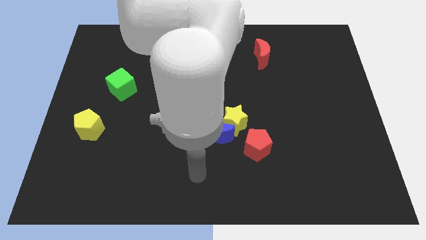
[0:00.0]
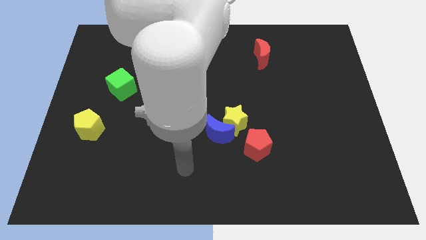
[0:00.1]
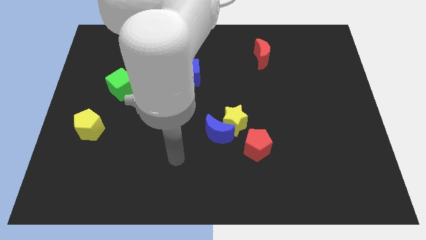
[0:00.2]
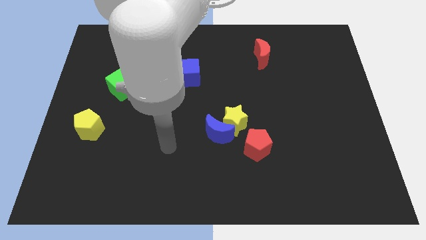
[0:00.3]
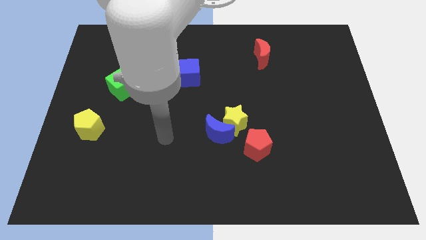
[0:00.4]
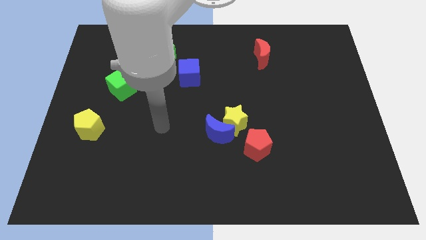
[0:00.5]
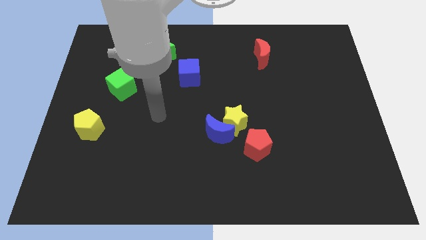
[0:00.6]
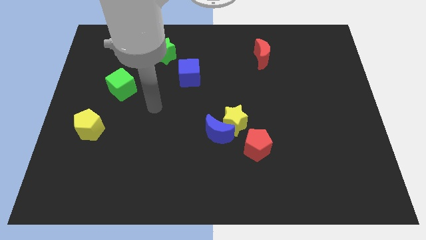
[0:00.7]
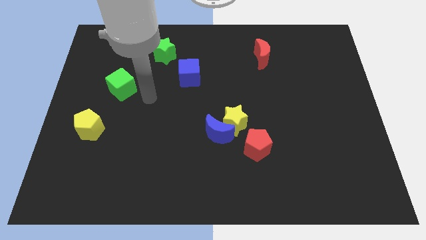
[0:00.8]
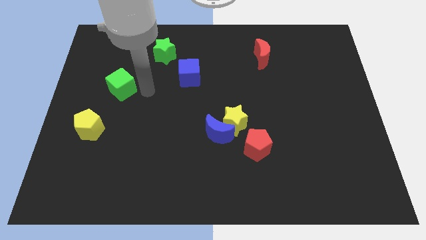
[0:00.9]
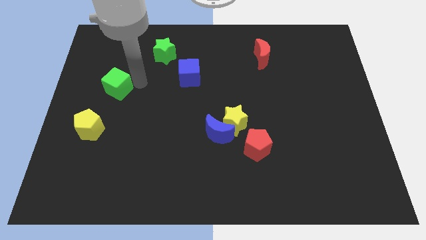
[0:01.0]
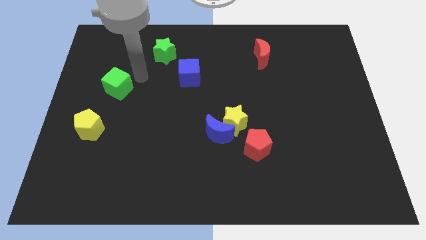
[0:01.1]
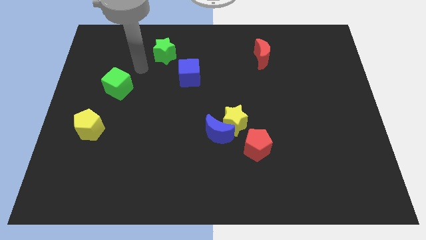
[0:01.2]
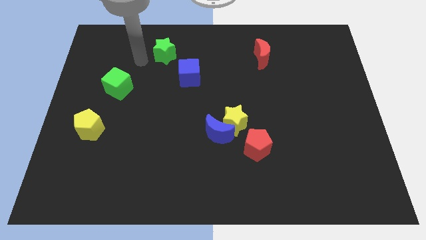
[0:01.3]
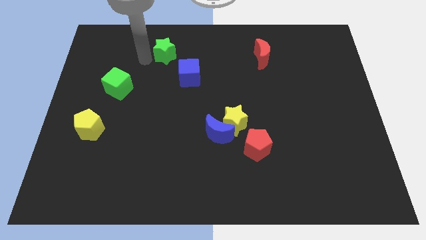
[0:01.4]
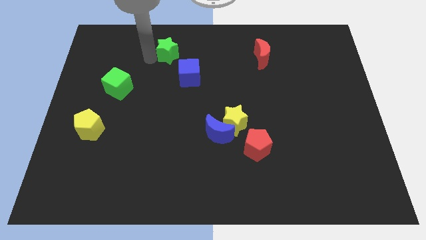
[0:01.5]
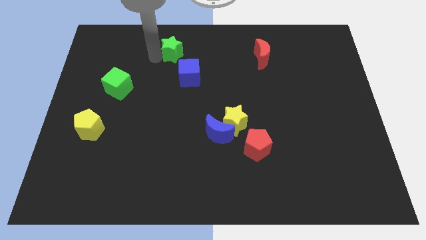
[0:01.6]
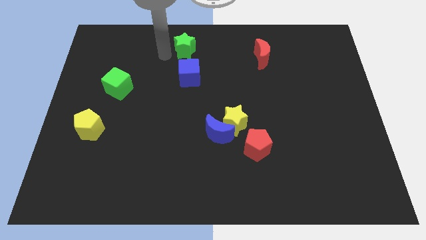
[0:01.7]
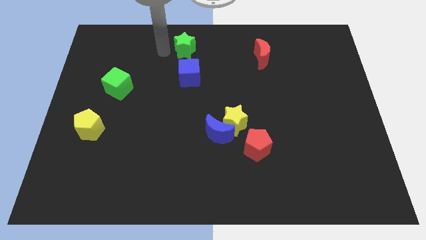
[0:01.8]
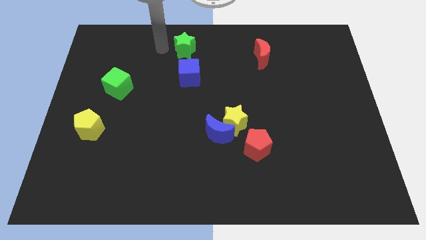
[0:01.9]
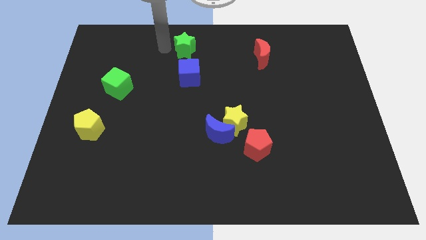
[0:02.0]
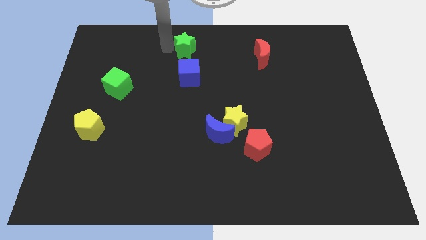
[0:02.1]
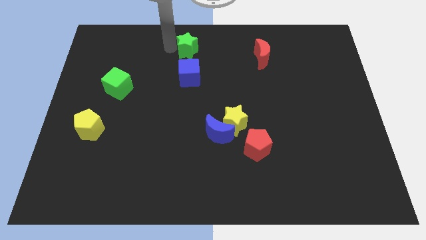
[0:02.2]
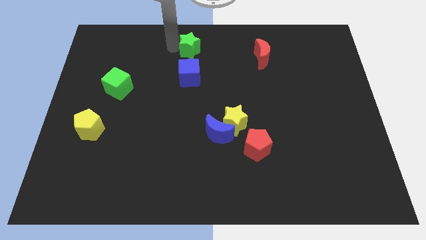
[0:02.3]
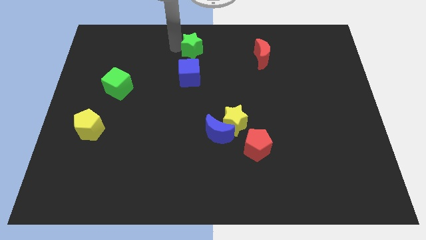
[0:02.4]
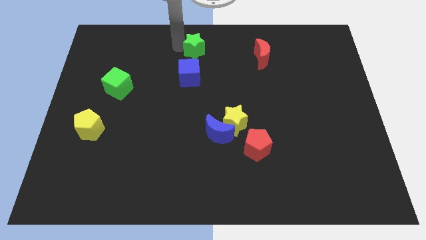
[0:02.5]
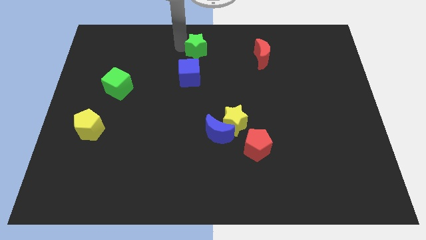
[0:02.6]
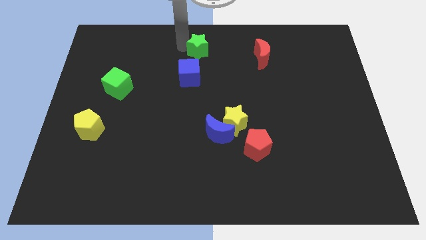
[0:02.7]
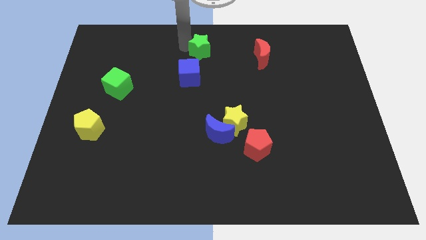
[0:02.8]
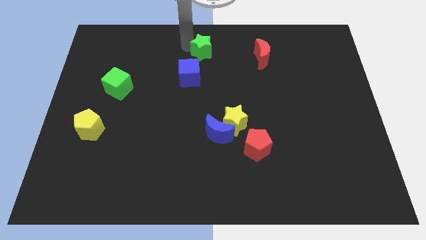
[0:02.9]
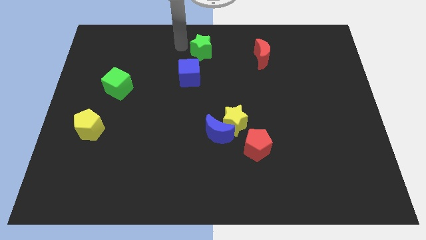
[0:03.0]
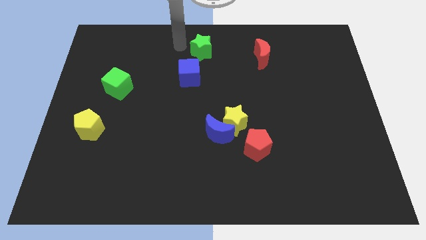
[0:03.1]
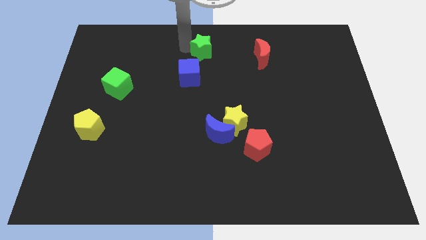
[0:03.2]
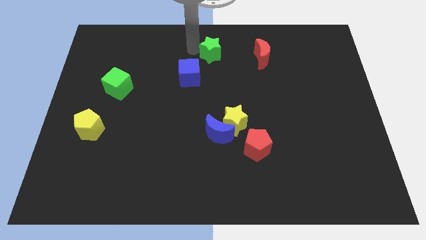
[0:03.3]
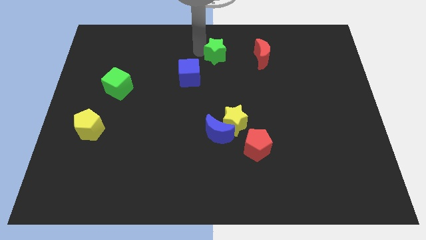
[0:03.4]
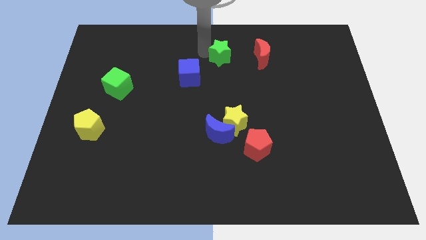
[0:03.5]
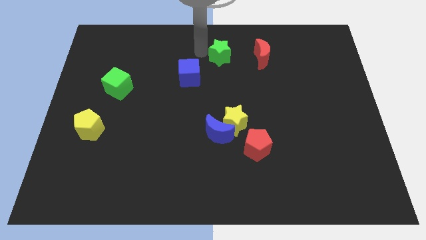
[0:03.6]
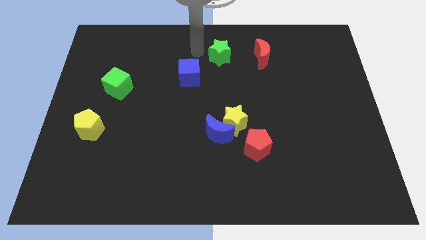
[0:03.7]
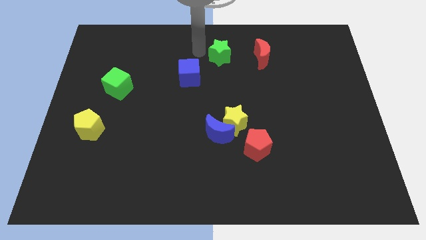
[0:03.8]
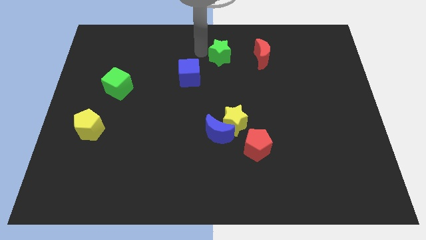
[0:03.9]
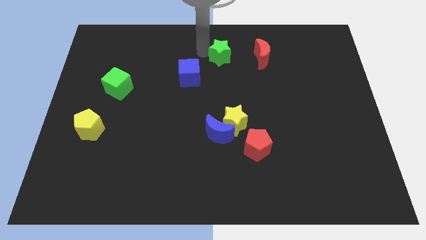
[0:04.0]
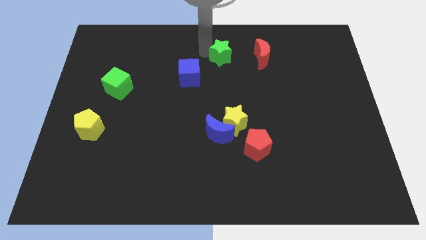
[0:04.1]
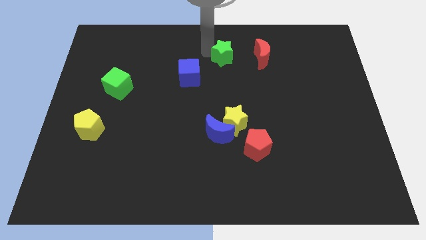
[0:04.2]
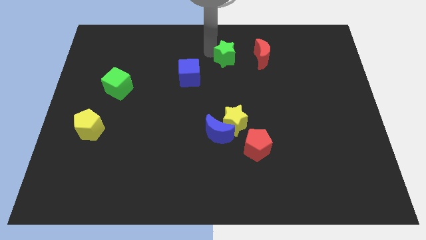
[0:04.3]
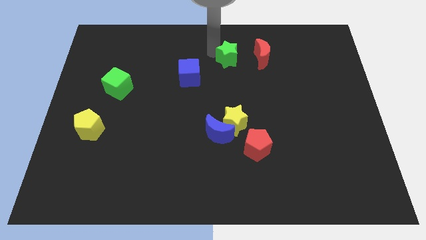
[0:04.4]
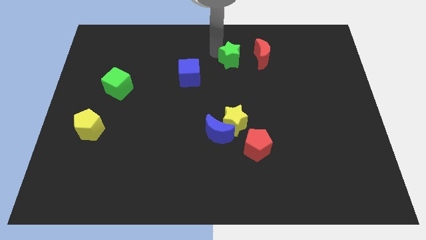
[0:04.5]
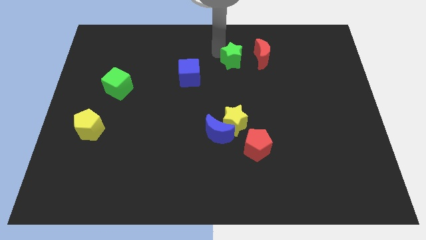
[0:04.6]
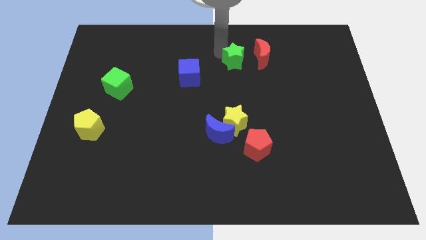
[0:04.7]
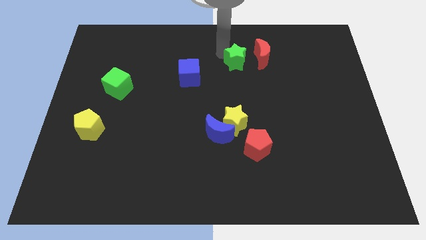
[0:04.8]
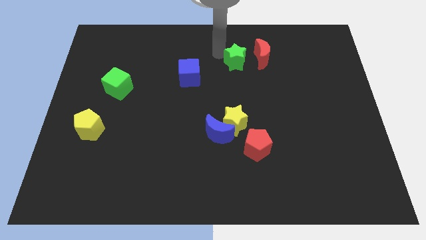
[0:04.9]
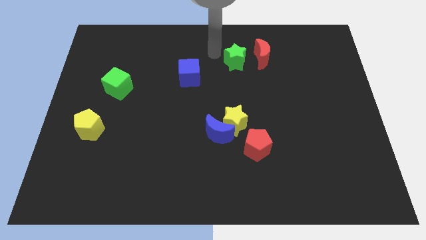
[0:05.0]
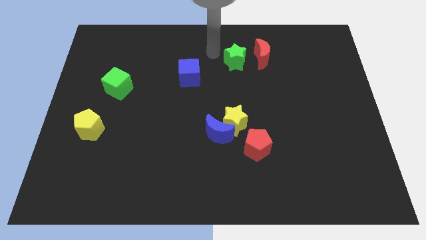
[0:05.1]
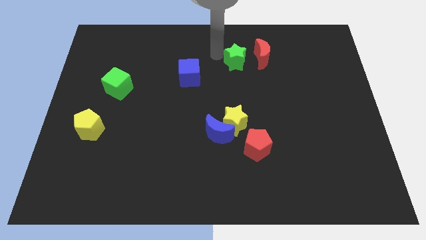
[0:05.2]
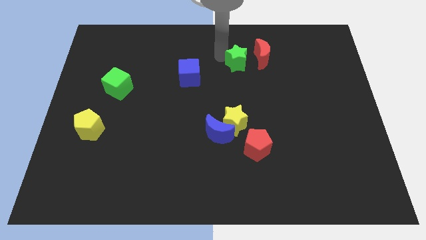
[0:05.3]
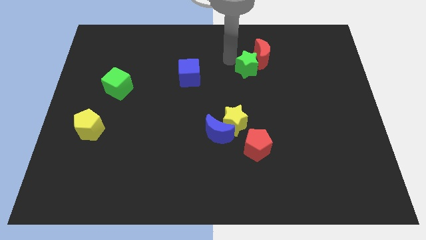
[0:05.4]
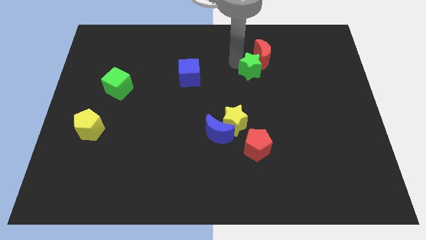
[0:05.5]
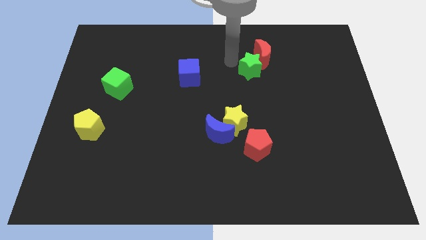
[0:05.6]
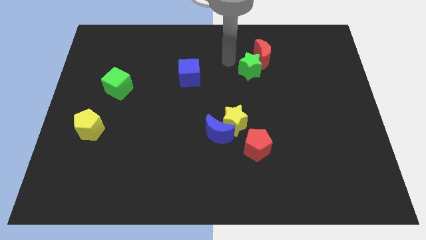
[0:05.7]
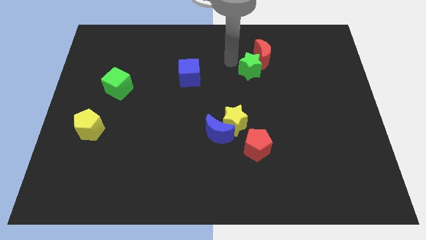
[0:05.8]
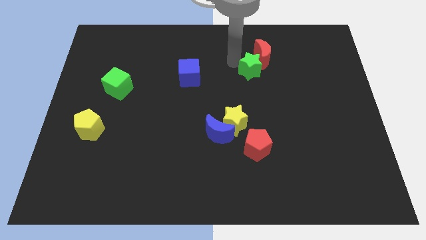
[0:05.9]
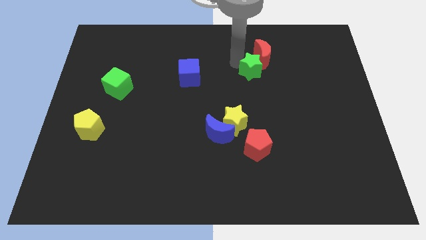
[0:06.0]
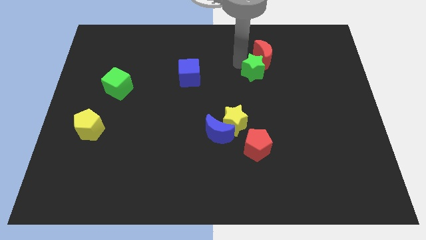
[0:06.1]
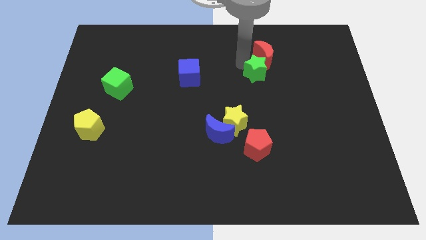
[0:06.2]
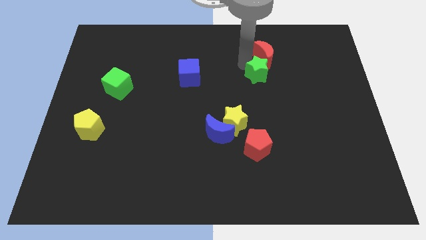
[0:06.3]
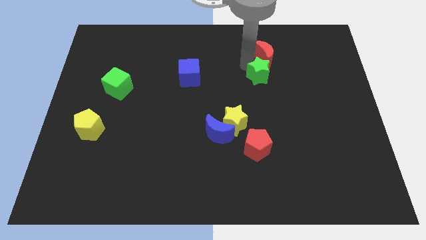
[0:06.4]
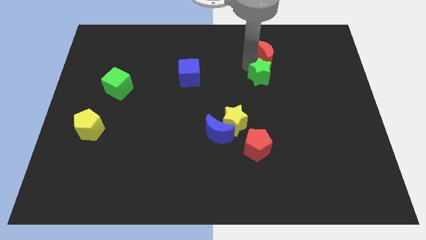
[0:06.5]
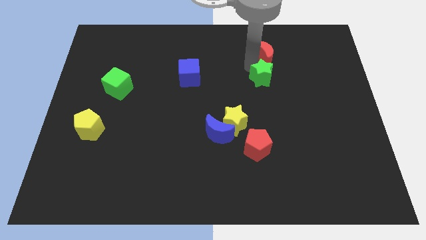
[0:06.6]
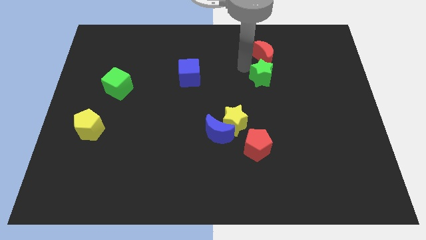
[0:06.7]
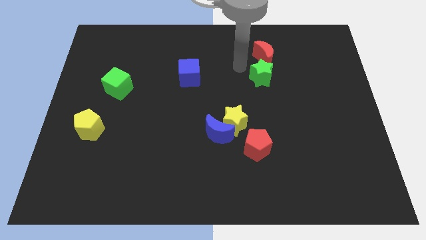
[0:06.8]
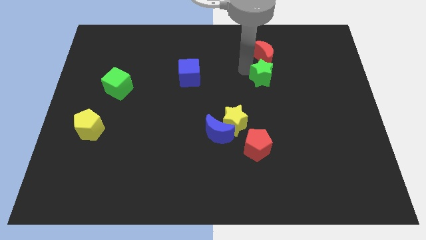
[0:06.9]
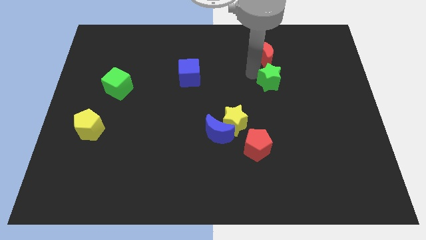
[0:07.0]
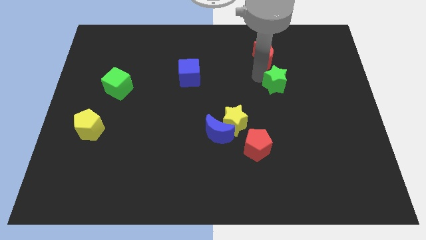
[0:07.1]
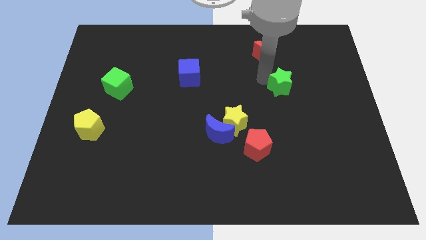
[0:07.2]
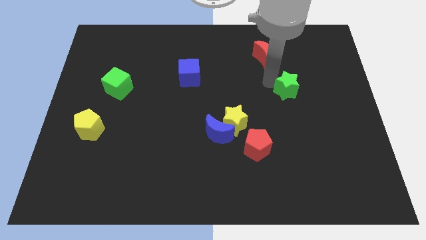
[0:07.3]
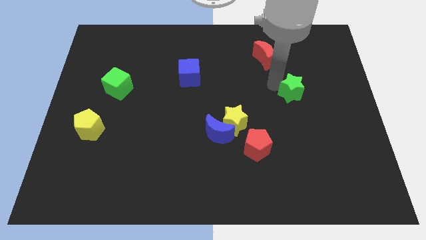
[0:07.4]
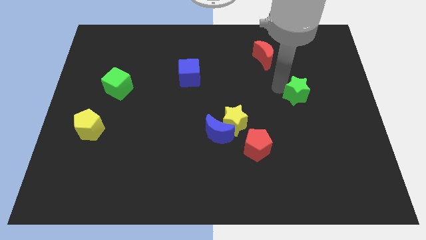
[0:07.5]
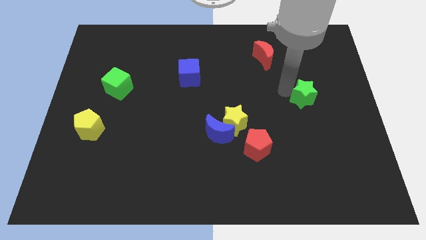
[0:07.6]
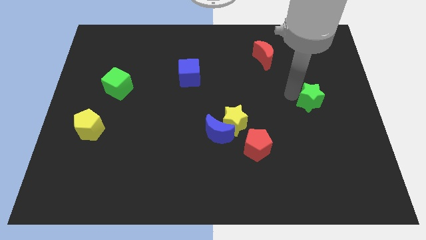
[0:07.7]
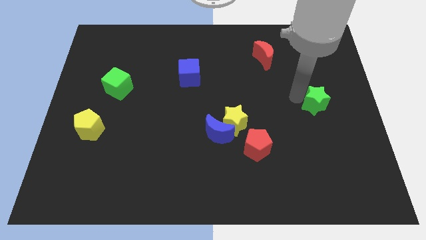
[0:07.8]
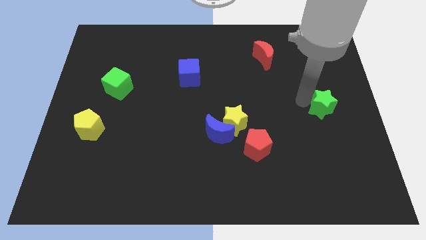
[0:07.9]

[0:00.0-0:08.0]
push the green star to the right side of the board

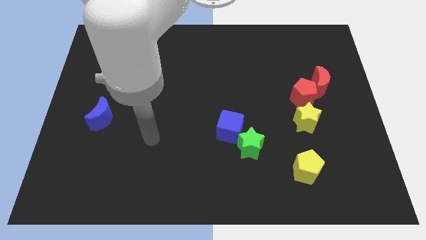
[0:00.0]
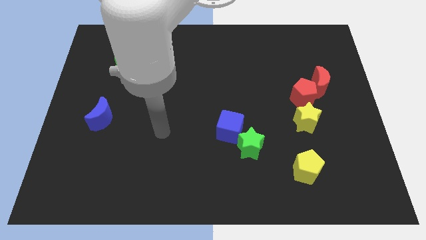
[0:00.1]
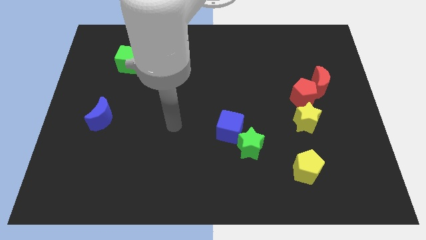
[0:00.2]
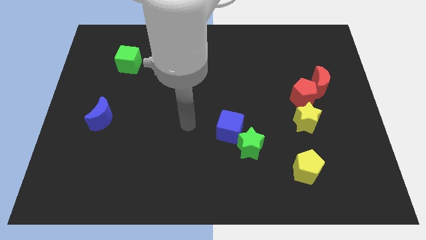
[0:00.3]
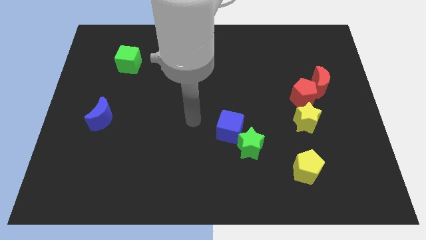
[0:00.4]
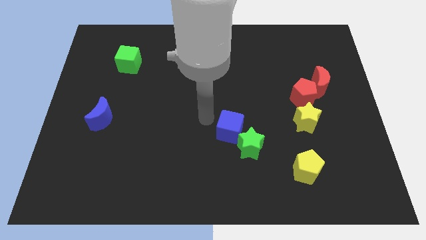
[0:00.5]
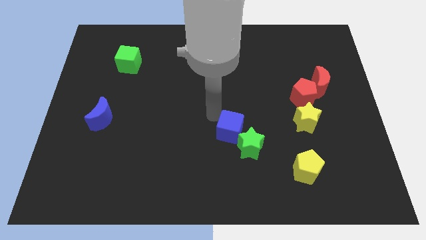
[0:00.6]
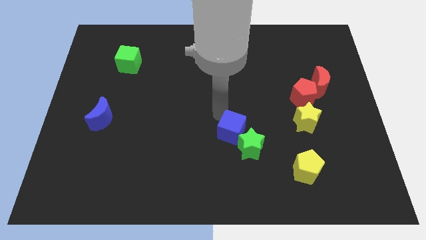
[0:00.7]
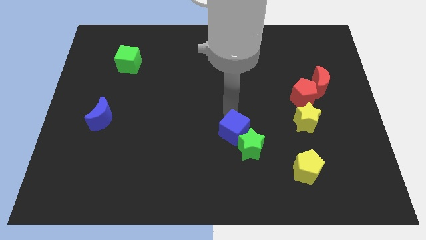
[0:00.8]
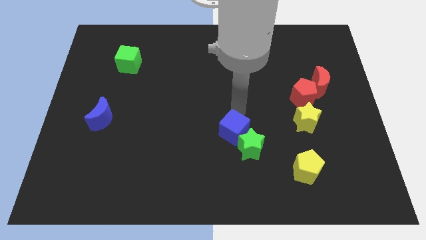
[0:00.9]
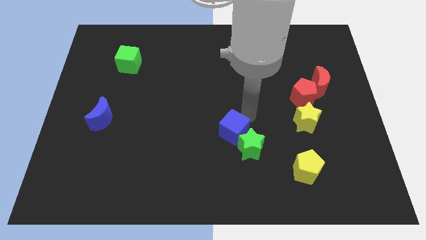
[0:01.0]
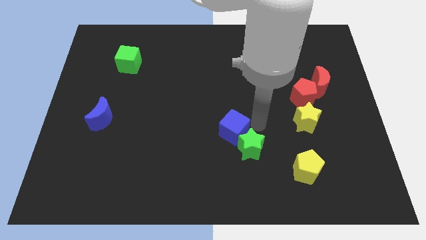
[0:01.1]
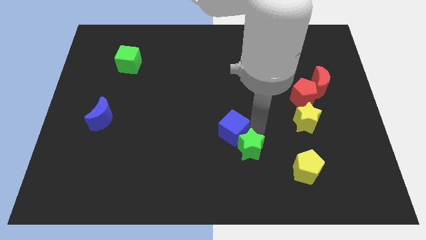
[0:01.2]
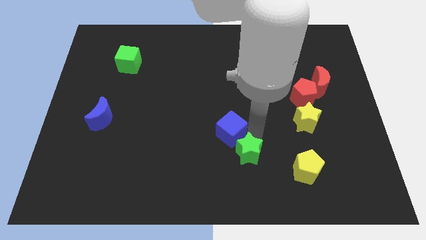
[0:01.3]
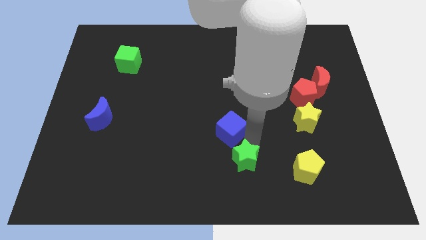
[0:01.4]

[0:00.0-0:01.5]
slide the green star to the bottom
